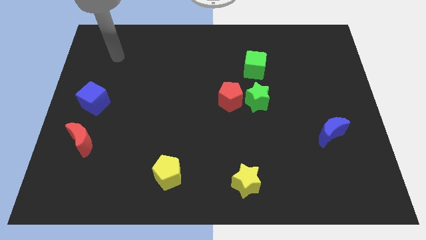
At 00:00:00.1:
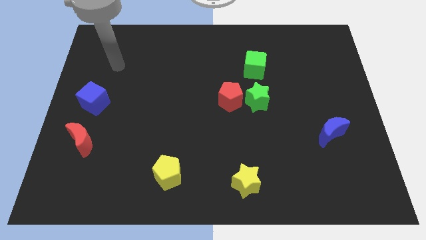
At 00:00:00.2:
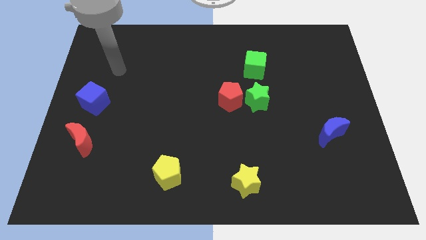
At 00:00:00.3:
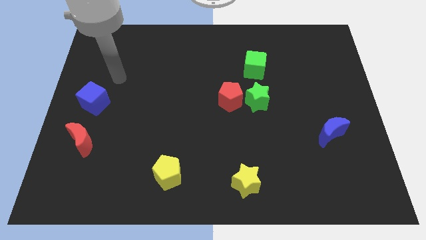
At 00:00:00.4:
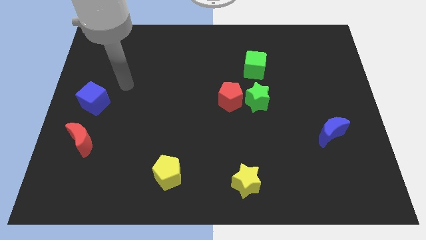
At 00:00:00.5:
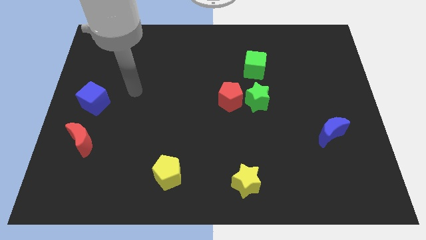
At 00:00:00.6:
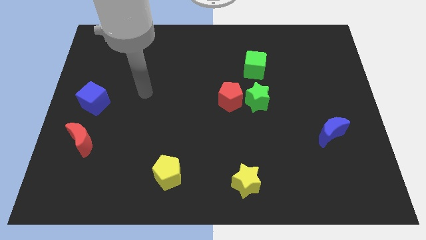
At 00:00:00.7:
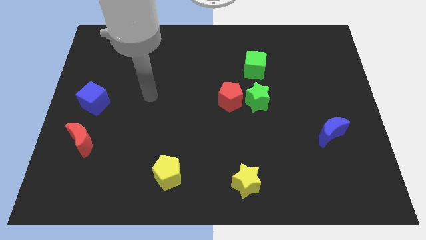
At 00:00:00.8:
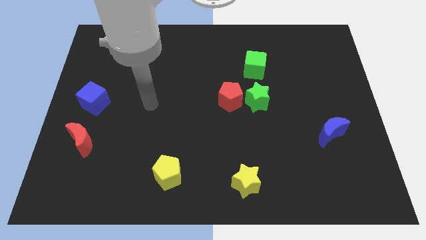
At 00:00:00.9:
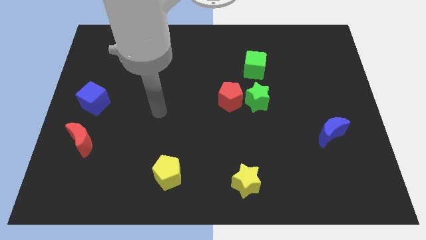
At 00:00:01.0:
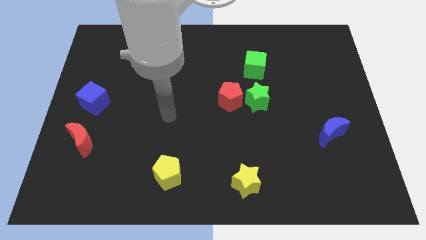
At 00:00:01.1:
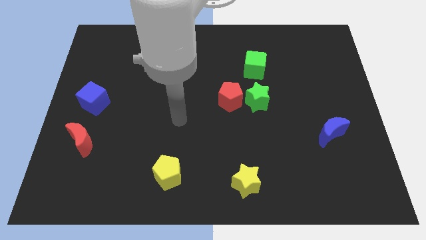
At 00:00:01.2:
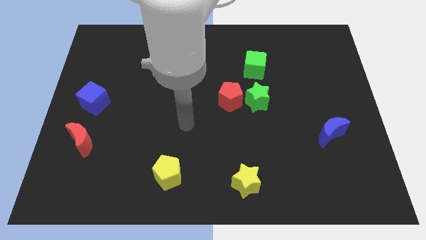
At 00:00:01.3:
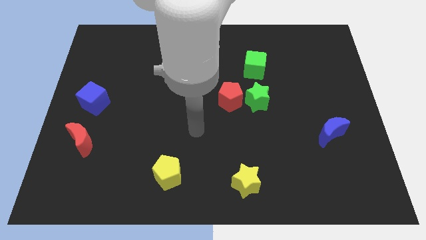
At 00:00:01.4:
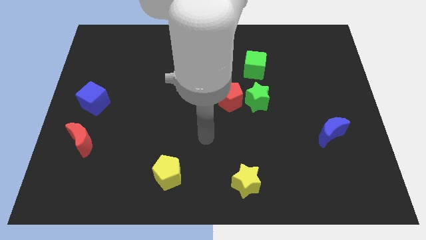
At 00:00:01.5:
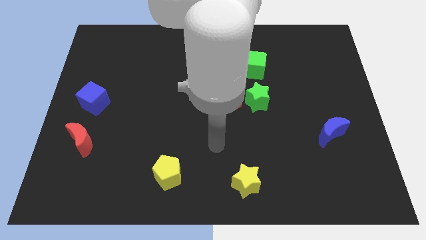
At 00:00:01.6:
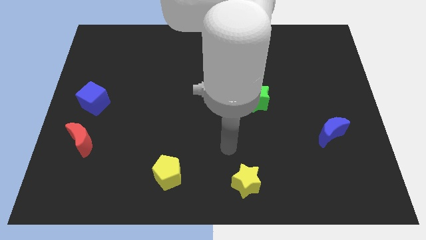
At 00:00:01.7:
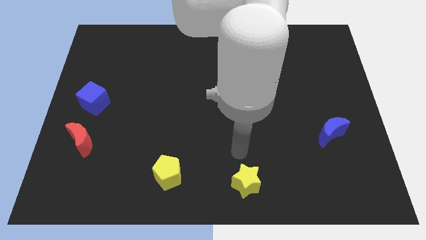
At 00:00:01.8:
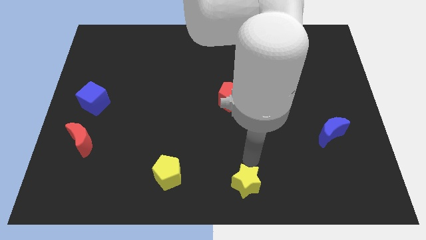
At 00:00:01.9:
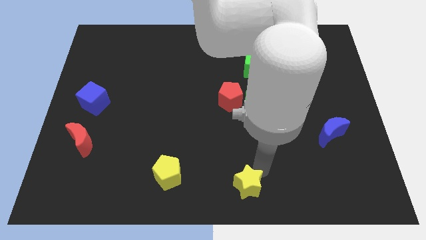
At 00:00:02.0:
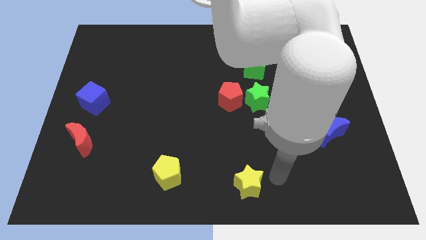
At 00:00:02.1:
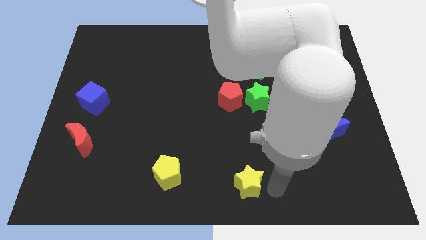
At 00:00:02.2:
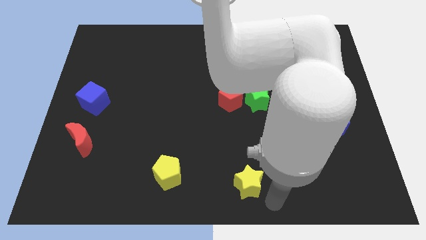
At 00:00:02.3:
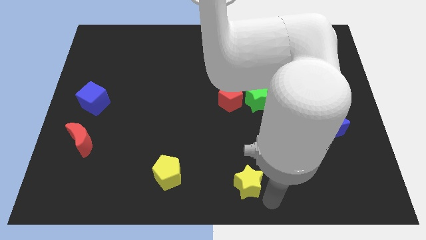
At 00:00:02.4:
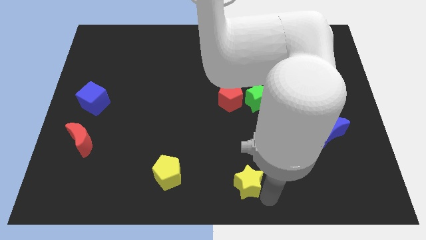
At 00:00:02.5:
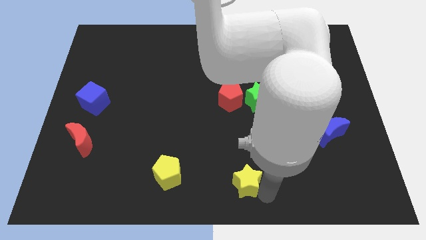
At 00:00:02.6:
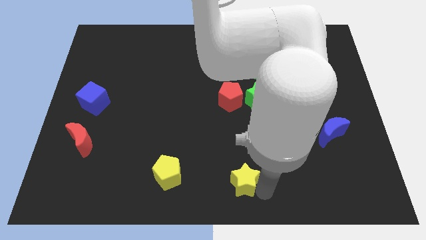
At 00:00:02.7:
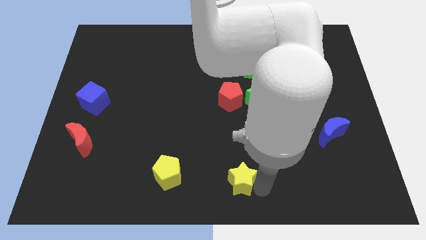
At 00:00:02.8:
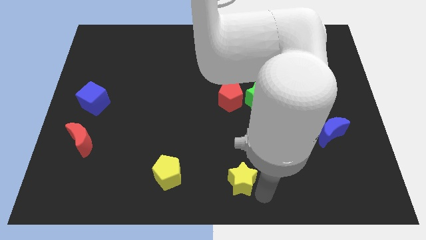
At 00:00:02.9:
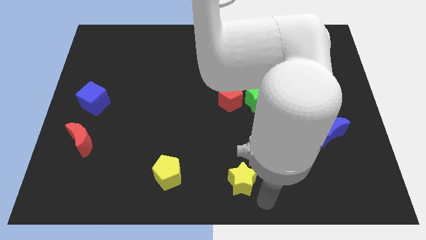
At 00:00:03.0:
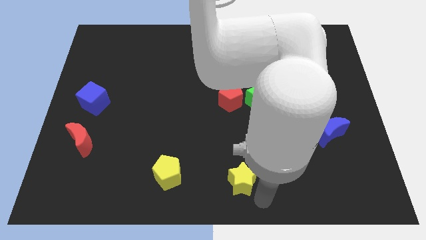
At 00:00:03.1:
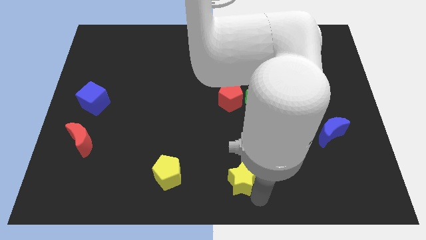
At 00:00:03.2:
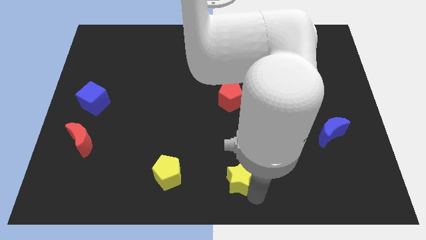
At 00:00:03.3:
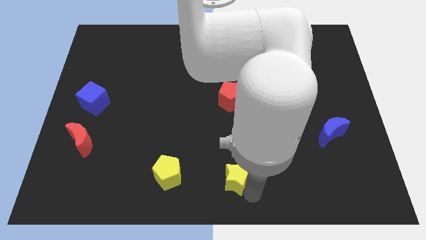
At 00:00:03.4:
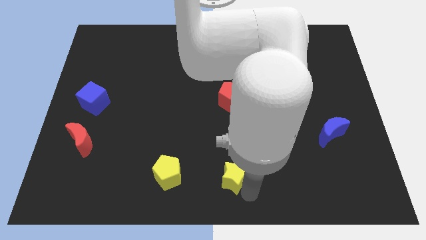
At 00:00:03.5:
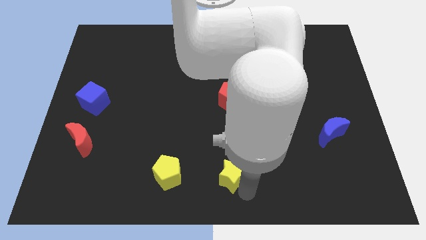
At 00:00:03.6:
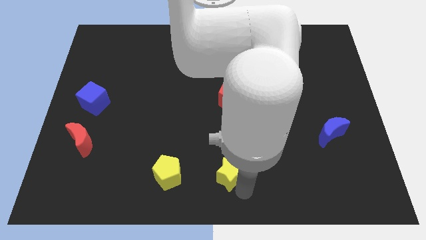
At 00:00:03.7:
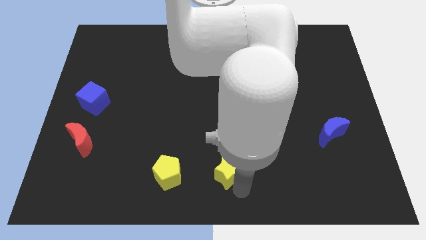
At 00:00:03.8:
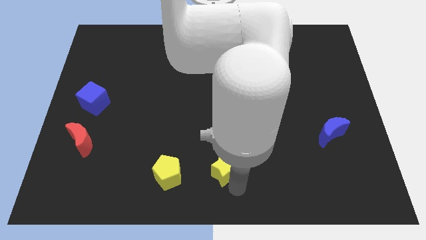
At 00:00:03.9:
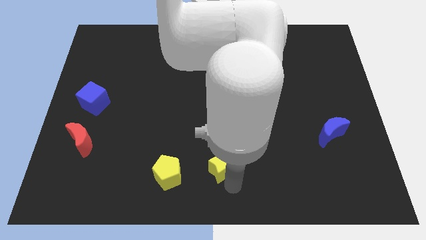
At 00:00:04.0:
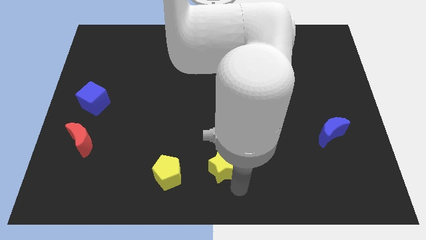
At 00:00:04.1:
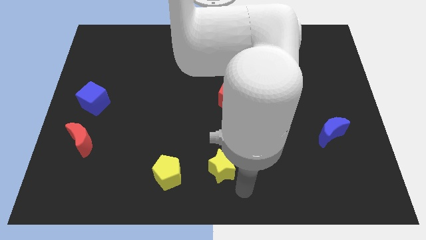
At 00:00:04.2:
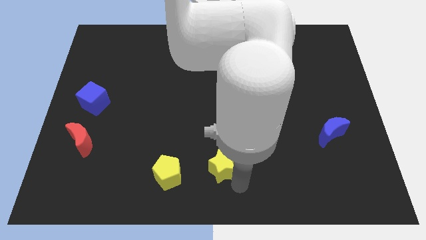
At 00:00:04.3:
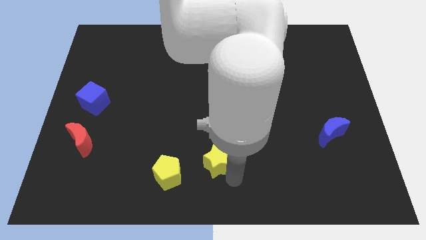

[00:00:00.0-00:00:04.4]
slightly slide the yellow star up and to the left diagonally

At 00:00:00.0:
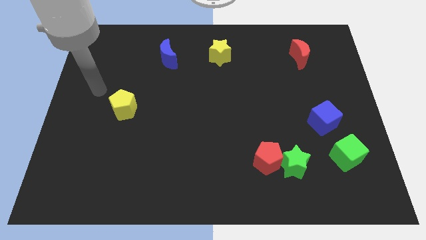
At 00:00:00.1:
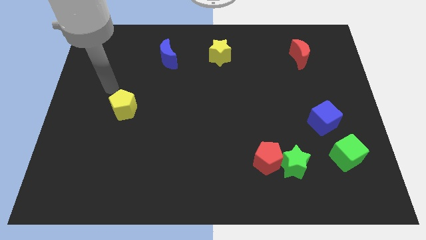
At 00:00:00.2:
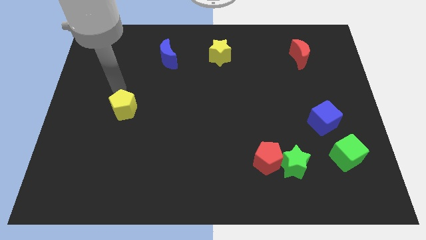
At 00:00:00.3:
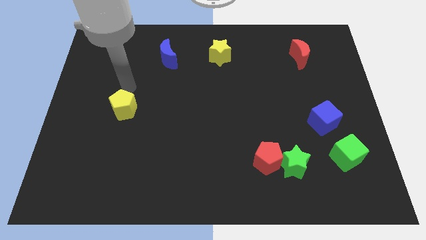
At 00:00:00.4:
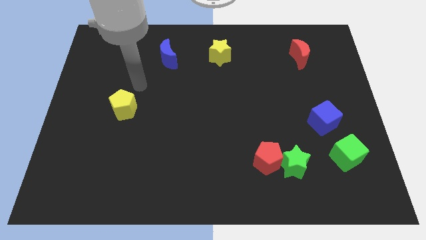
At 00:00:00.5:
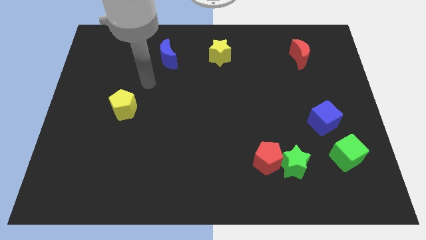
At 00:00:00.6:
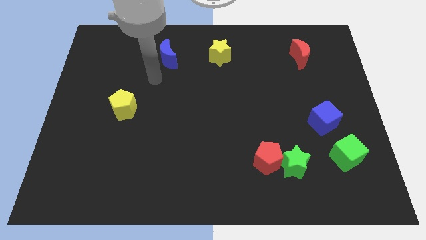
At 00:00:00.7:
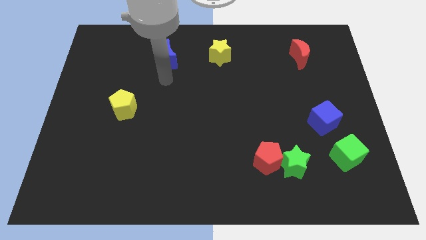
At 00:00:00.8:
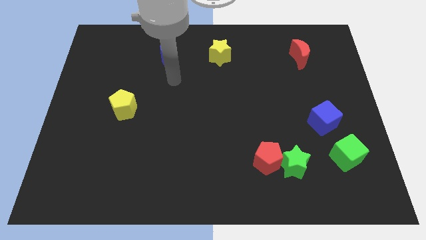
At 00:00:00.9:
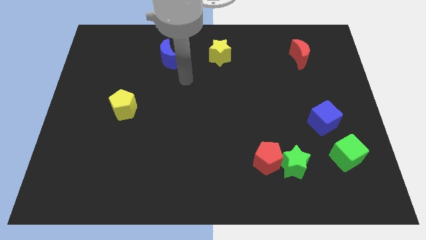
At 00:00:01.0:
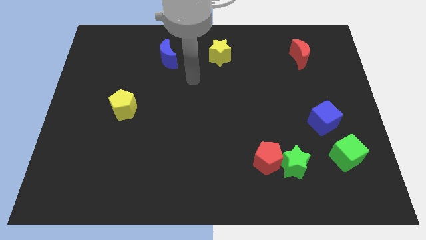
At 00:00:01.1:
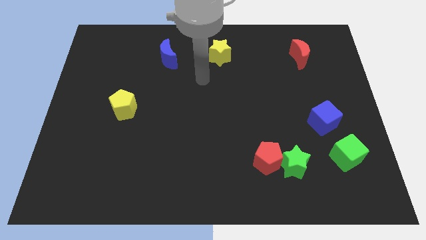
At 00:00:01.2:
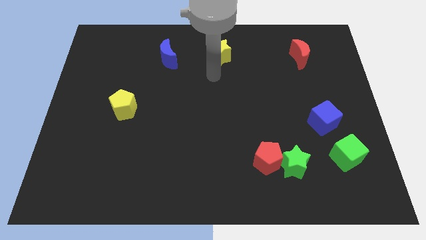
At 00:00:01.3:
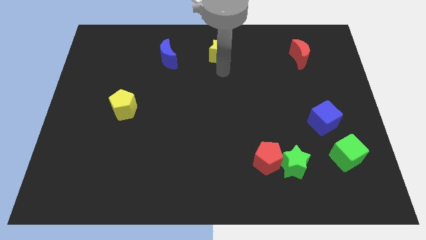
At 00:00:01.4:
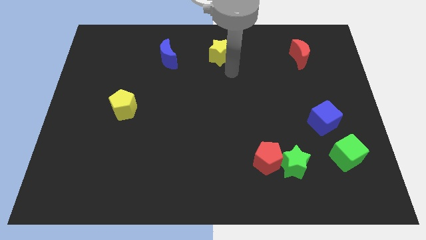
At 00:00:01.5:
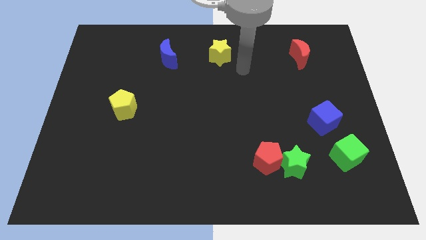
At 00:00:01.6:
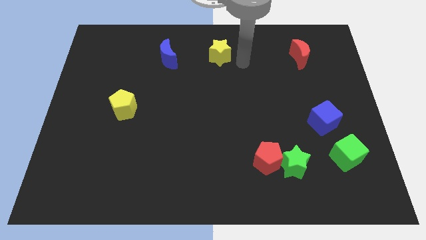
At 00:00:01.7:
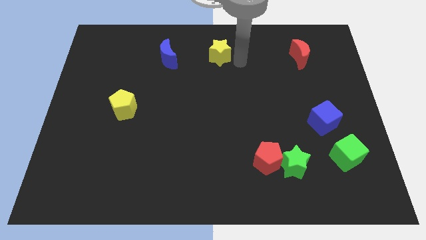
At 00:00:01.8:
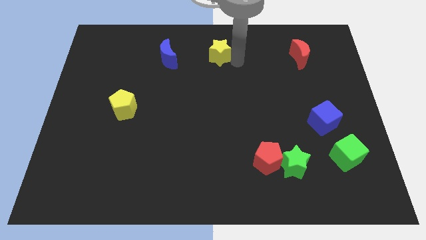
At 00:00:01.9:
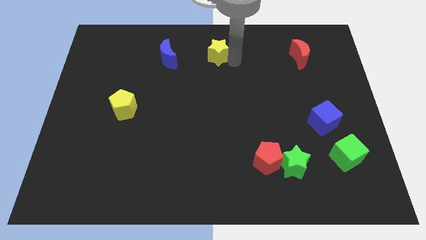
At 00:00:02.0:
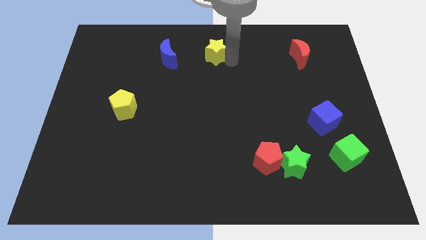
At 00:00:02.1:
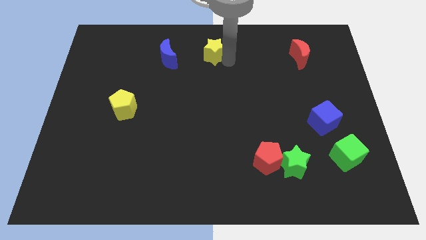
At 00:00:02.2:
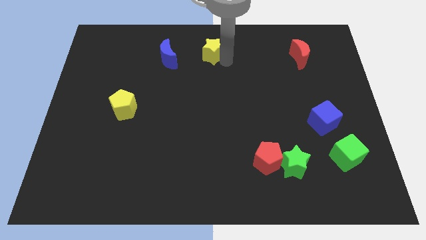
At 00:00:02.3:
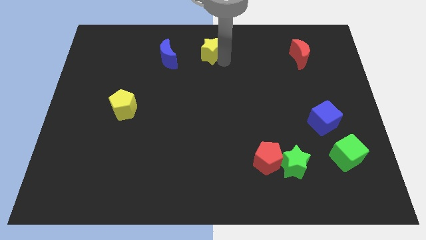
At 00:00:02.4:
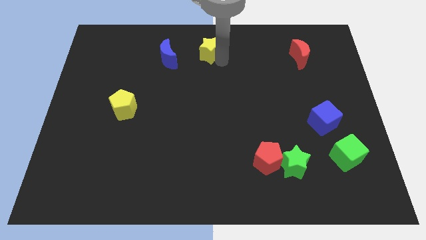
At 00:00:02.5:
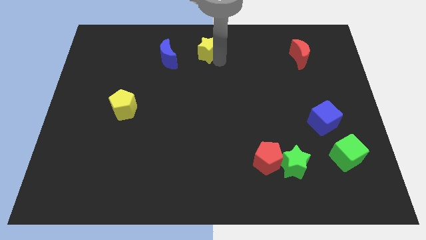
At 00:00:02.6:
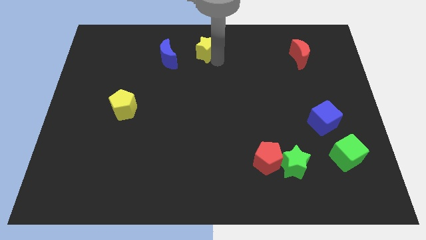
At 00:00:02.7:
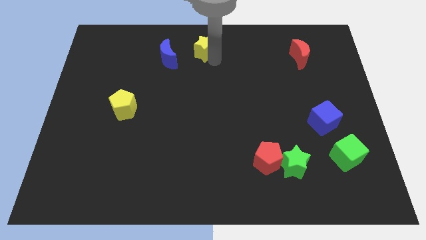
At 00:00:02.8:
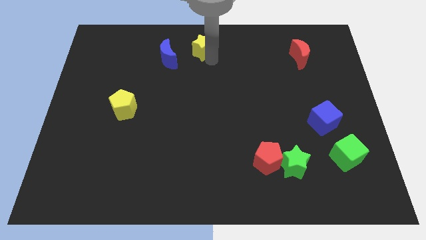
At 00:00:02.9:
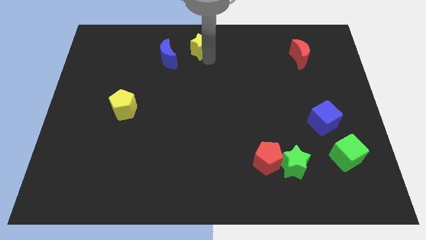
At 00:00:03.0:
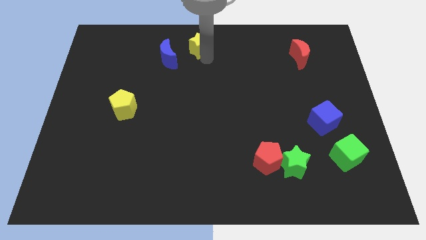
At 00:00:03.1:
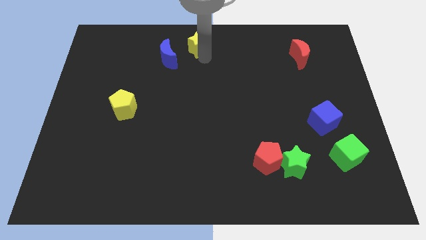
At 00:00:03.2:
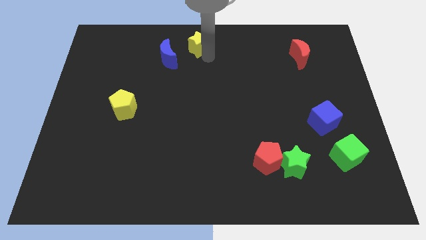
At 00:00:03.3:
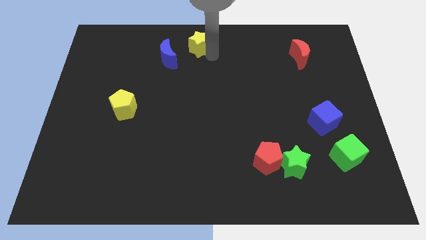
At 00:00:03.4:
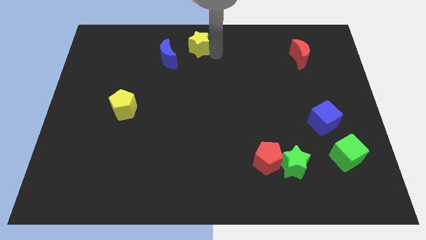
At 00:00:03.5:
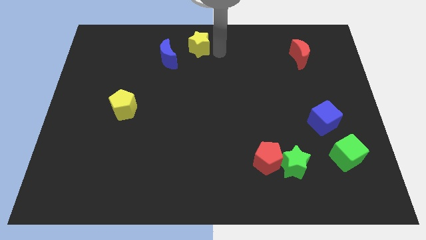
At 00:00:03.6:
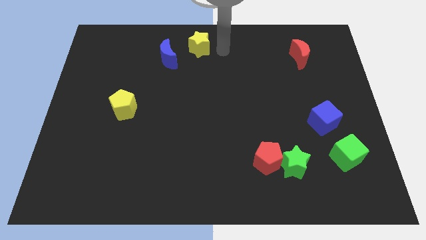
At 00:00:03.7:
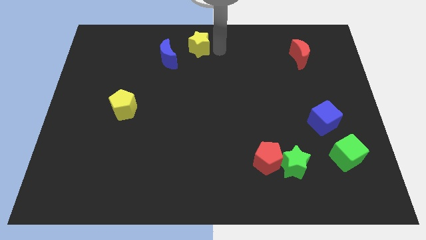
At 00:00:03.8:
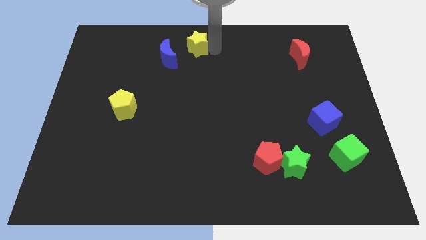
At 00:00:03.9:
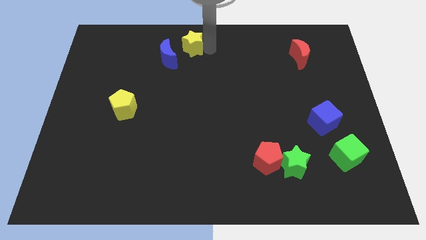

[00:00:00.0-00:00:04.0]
slightly move the yellow star to the left
